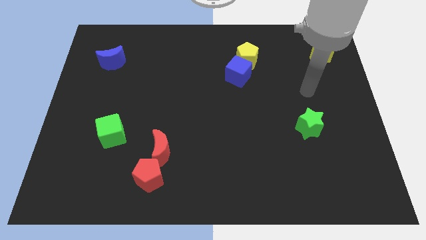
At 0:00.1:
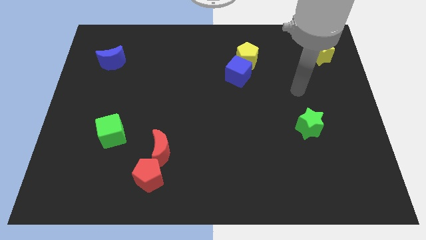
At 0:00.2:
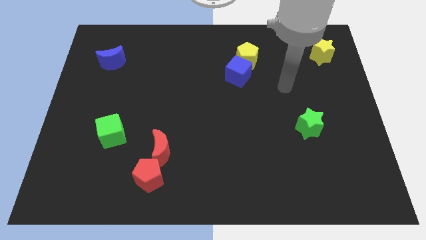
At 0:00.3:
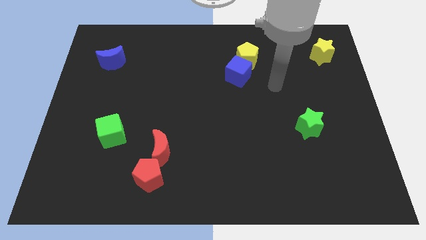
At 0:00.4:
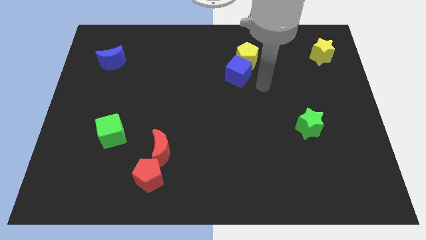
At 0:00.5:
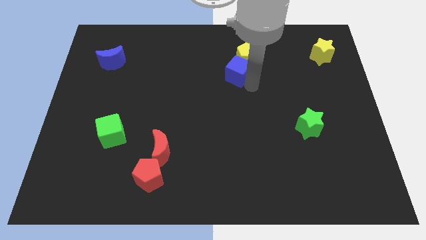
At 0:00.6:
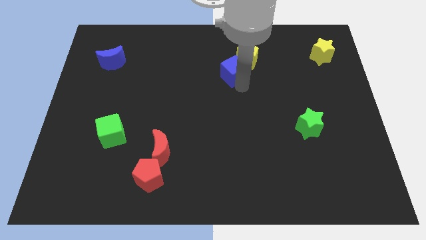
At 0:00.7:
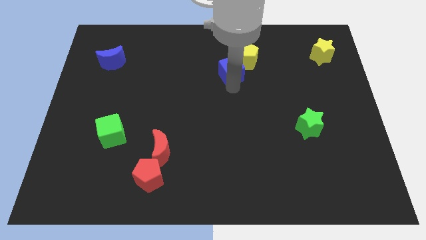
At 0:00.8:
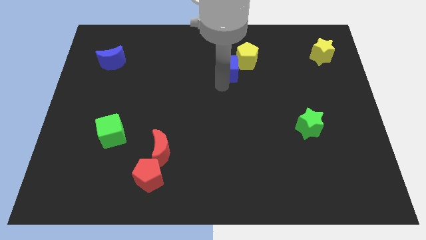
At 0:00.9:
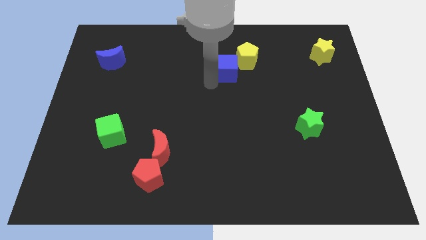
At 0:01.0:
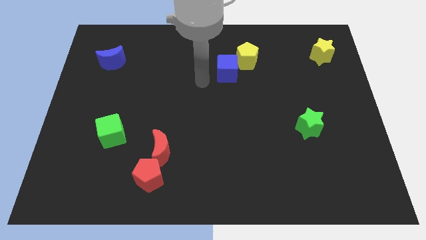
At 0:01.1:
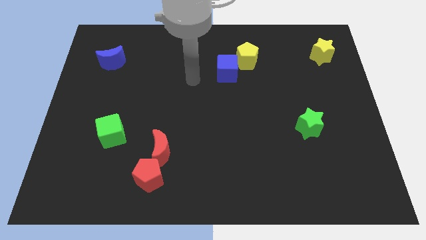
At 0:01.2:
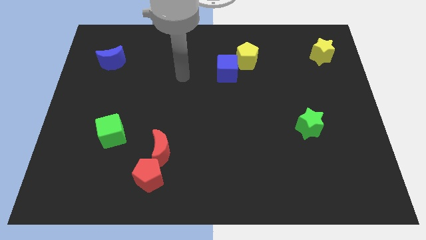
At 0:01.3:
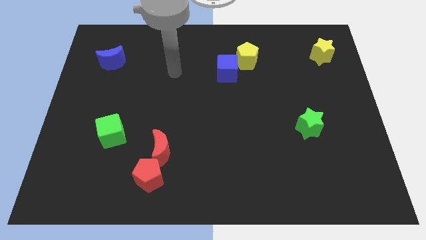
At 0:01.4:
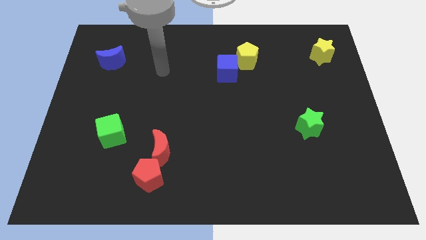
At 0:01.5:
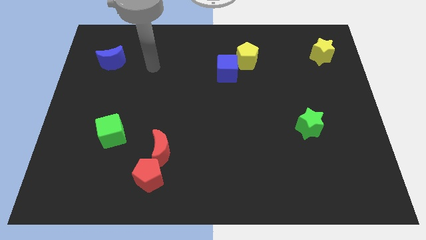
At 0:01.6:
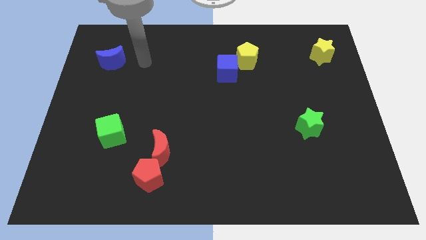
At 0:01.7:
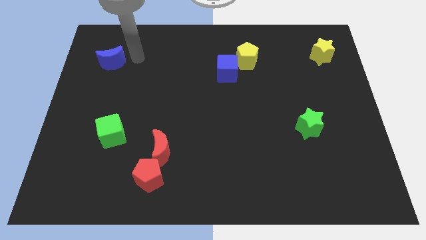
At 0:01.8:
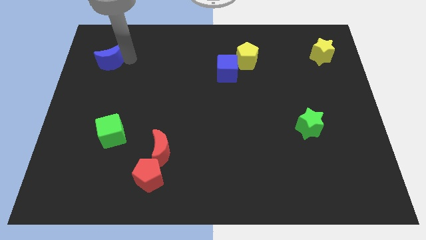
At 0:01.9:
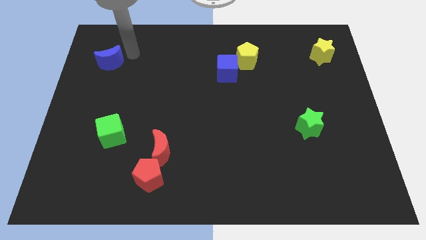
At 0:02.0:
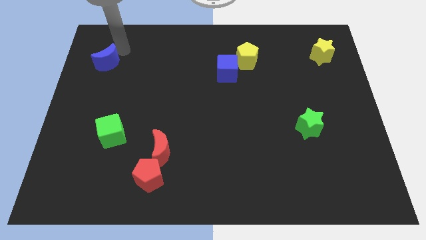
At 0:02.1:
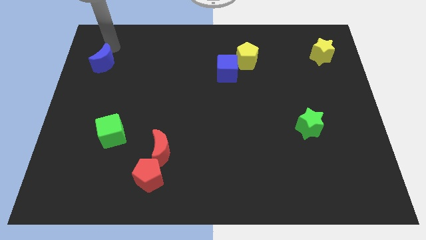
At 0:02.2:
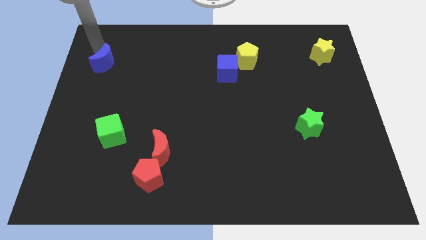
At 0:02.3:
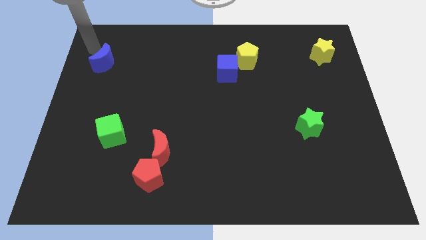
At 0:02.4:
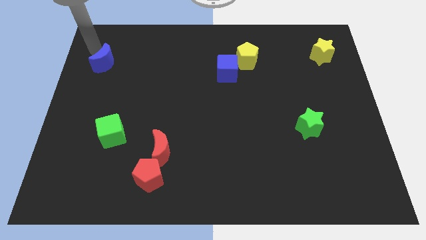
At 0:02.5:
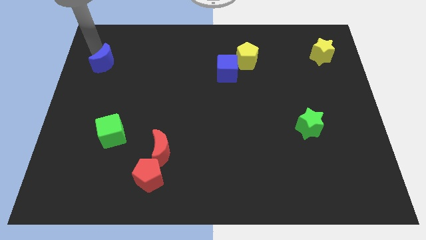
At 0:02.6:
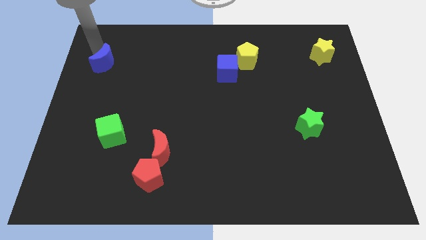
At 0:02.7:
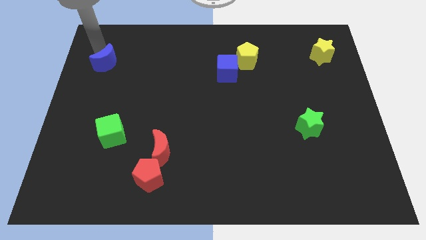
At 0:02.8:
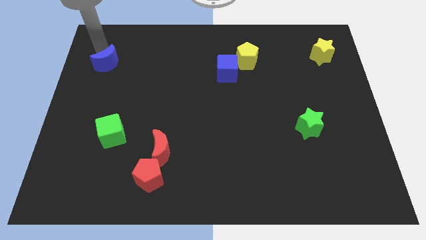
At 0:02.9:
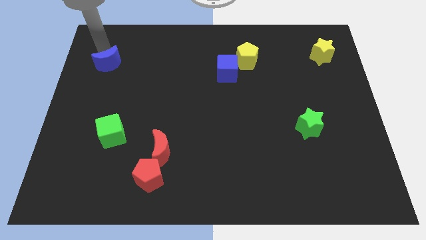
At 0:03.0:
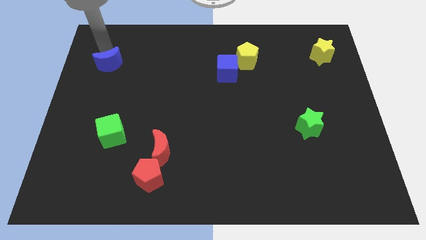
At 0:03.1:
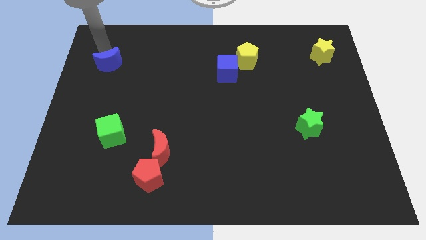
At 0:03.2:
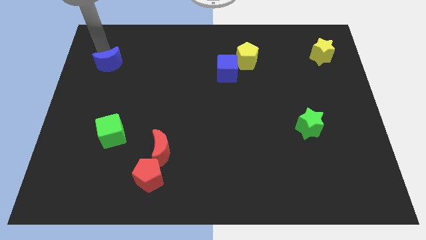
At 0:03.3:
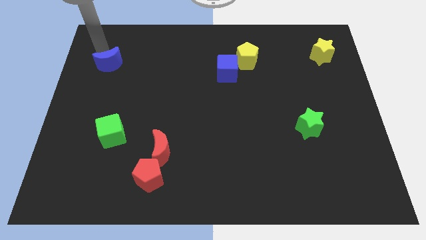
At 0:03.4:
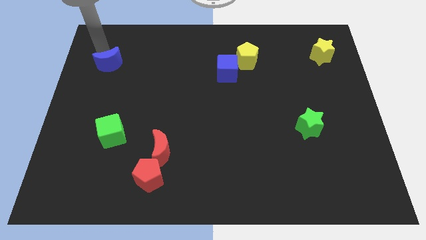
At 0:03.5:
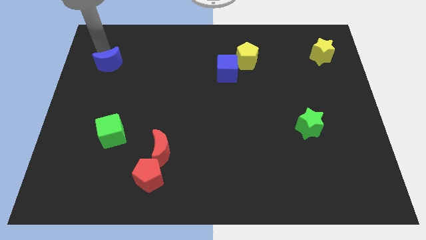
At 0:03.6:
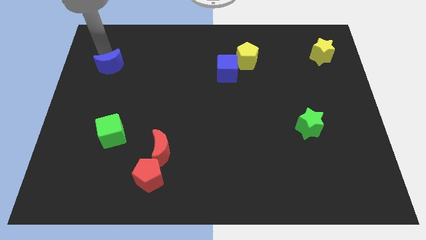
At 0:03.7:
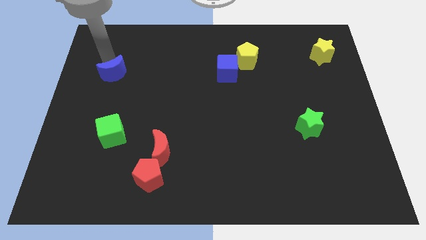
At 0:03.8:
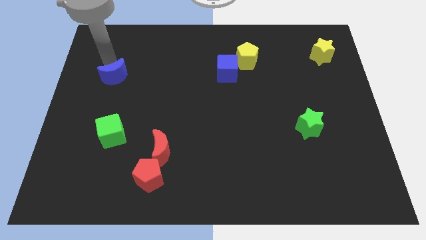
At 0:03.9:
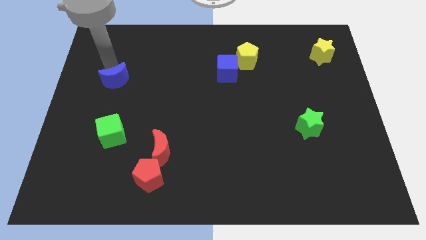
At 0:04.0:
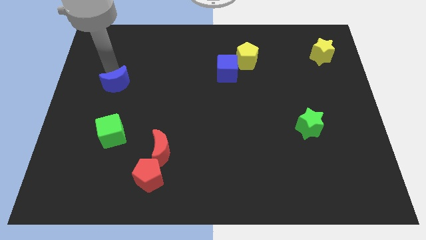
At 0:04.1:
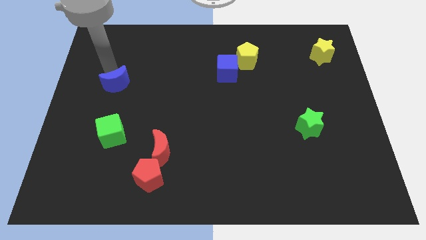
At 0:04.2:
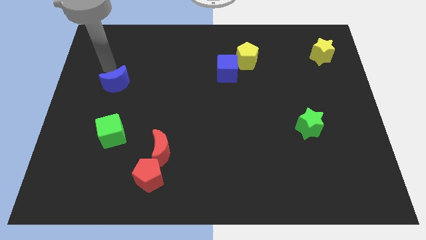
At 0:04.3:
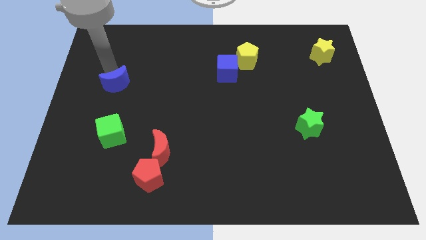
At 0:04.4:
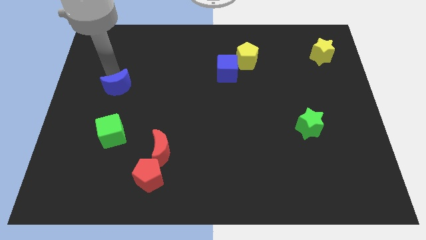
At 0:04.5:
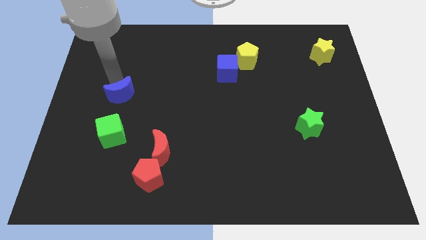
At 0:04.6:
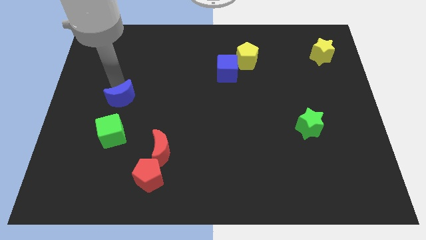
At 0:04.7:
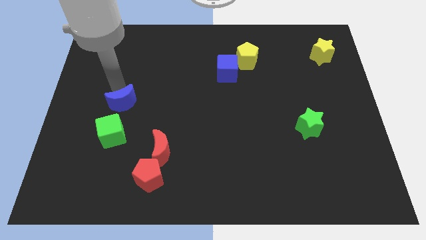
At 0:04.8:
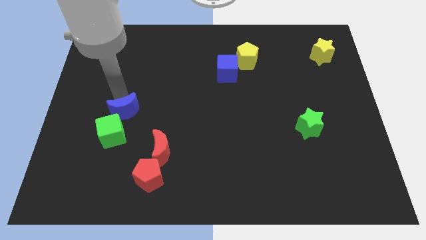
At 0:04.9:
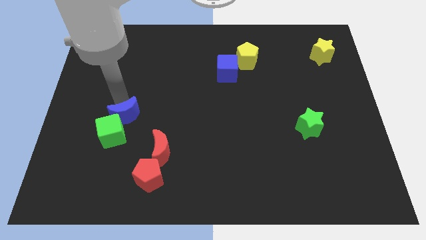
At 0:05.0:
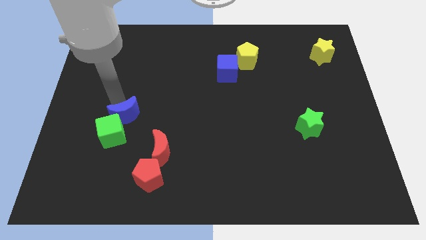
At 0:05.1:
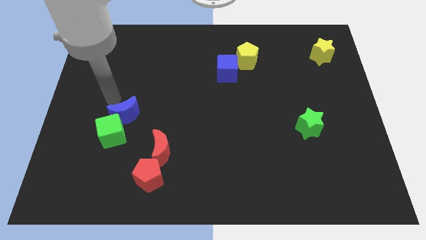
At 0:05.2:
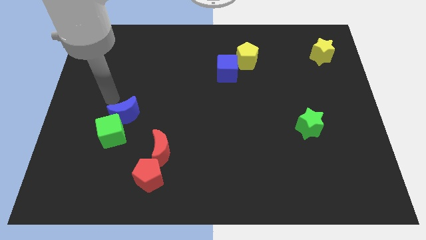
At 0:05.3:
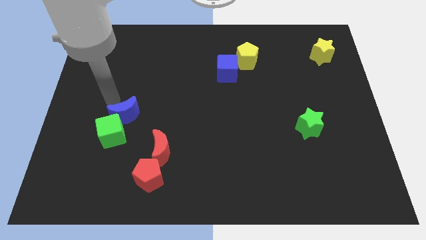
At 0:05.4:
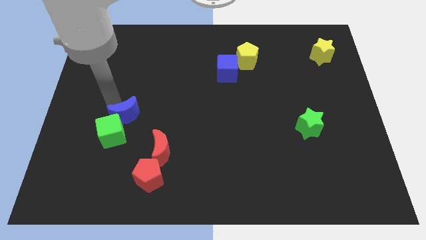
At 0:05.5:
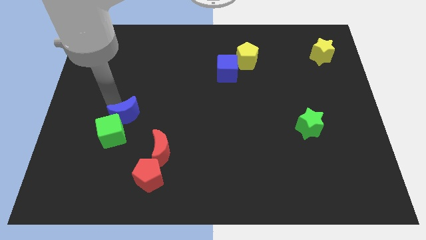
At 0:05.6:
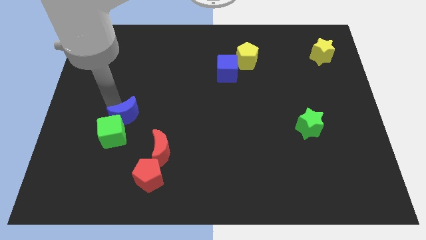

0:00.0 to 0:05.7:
push the blue moon diagonally up and to the left of the red moon

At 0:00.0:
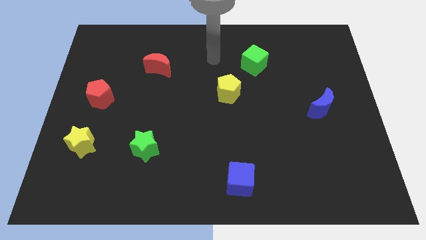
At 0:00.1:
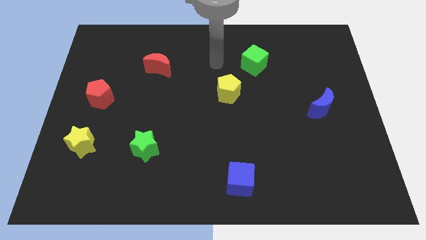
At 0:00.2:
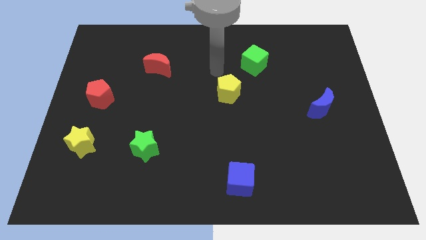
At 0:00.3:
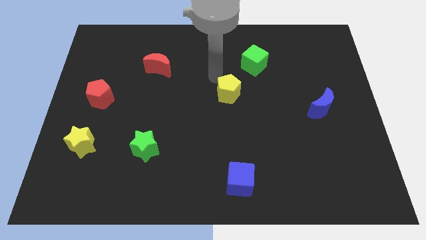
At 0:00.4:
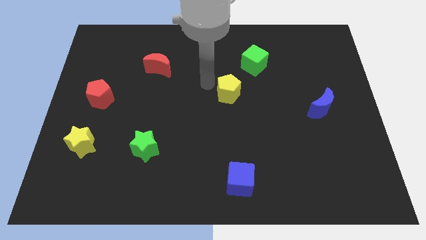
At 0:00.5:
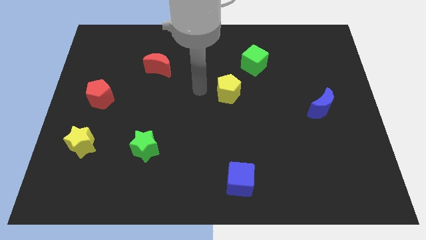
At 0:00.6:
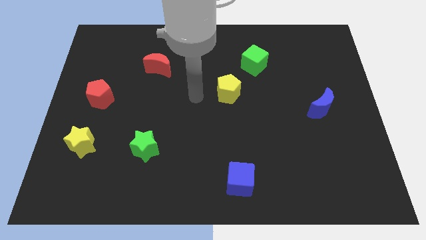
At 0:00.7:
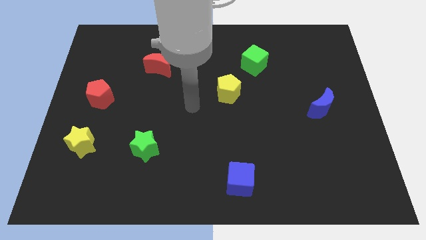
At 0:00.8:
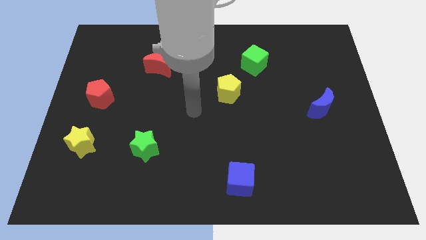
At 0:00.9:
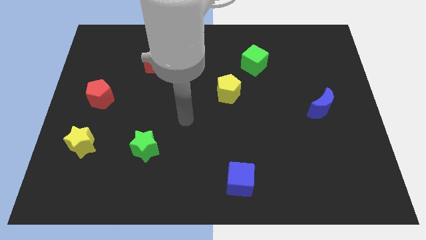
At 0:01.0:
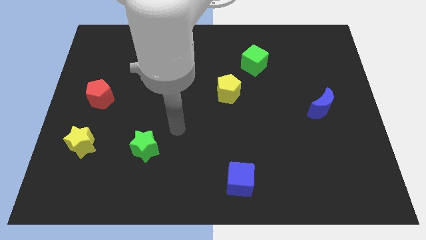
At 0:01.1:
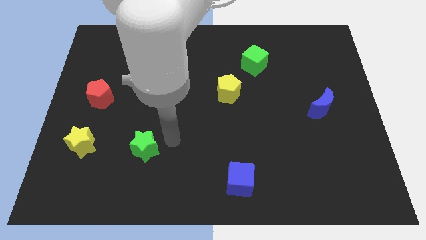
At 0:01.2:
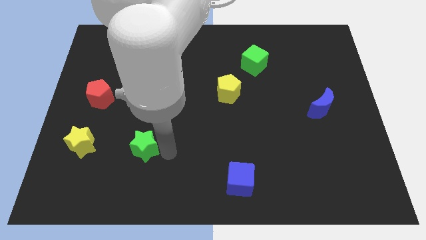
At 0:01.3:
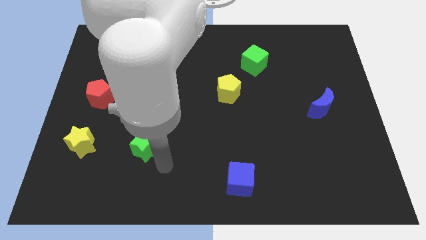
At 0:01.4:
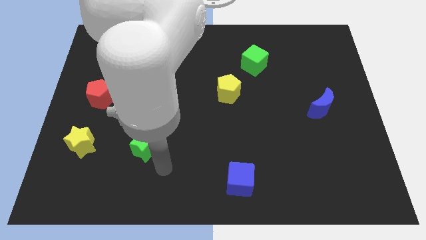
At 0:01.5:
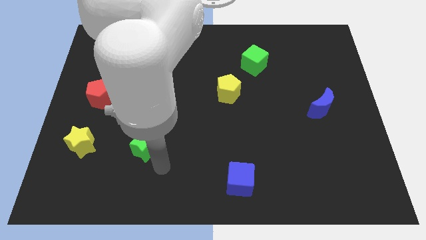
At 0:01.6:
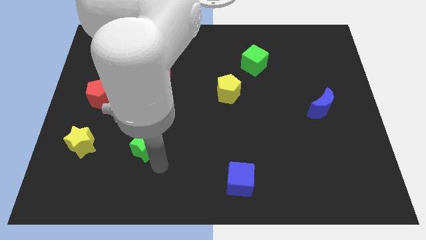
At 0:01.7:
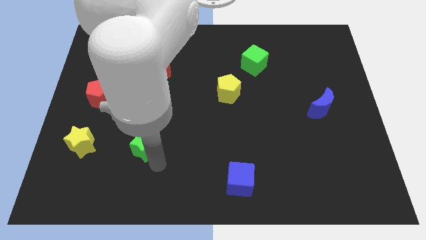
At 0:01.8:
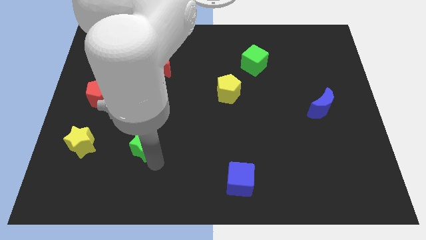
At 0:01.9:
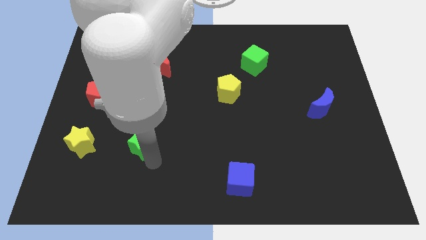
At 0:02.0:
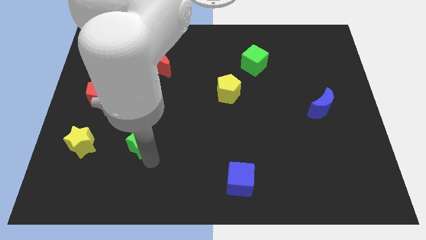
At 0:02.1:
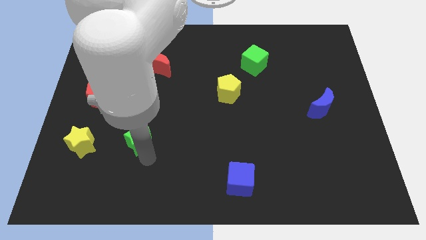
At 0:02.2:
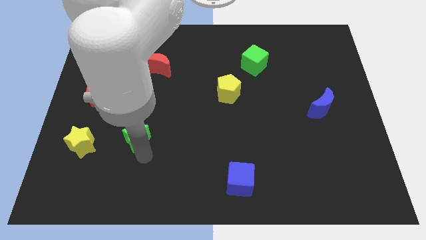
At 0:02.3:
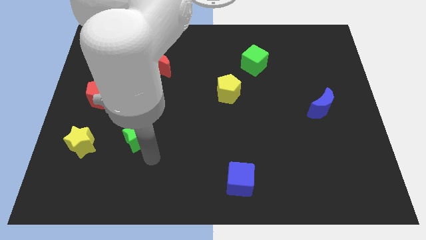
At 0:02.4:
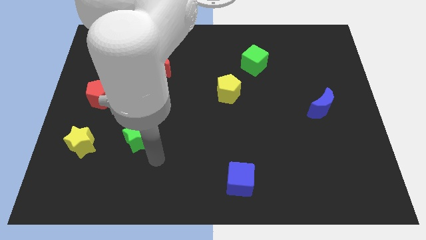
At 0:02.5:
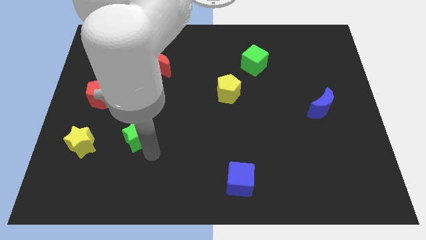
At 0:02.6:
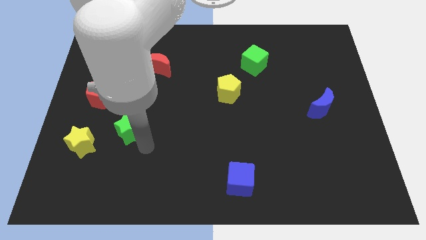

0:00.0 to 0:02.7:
move the green star to the bottom right side of the red pentagon
